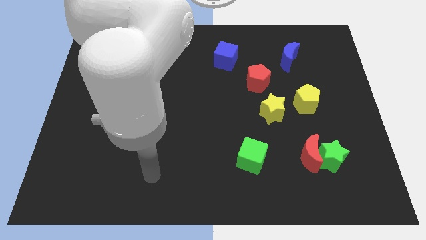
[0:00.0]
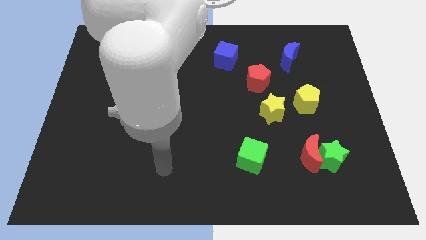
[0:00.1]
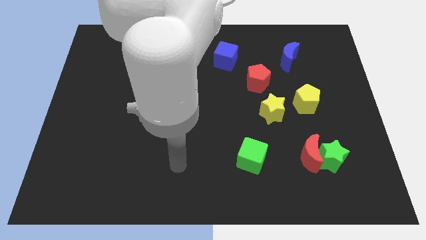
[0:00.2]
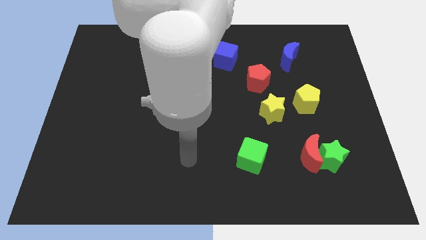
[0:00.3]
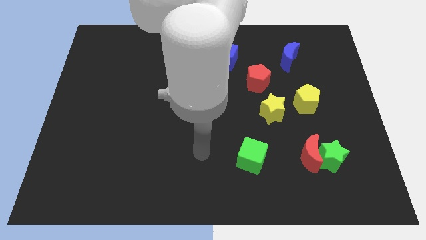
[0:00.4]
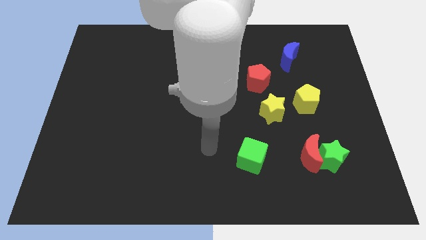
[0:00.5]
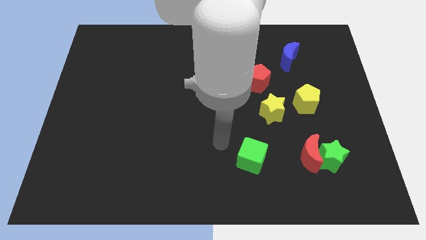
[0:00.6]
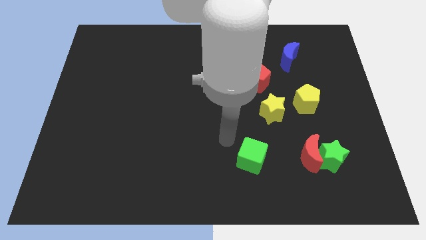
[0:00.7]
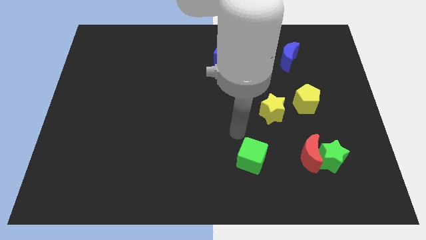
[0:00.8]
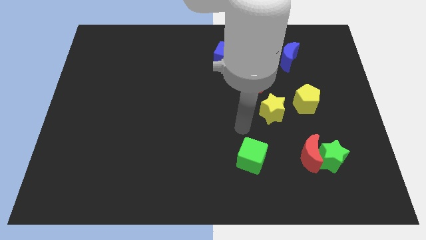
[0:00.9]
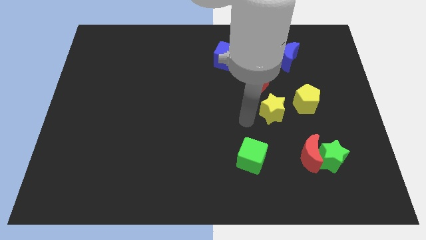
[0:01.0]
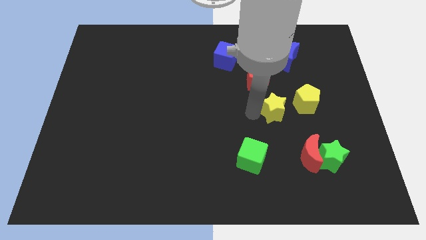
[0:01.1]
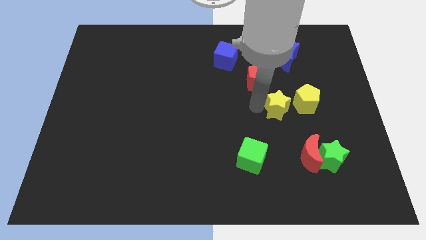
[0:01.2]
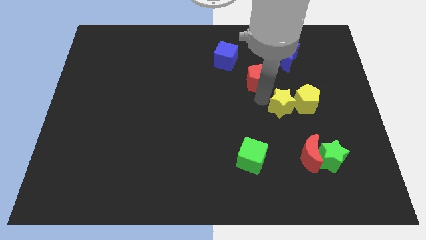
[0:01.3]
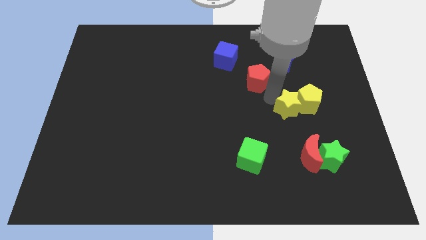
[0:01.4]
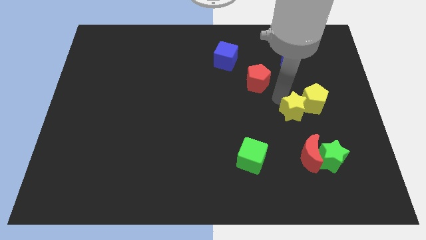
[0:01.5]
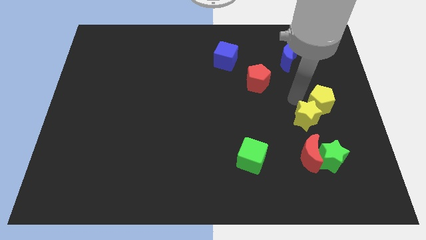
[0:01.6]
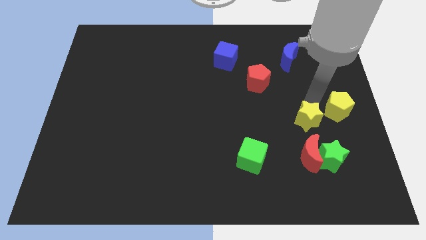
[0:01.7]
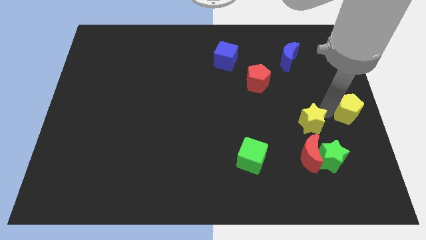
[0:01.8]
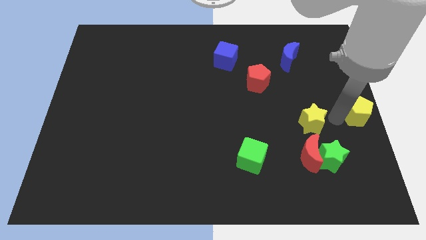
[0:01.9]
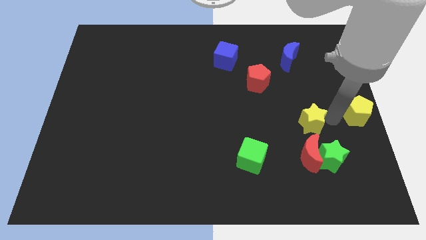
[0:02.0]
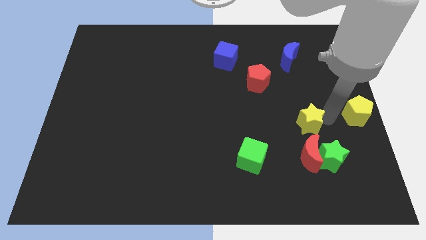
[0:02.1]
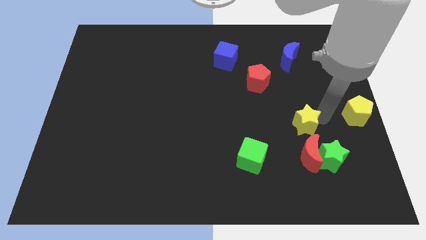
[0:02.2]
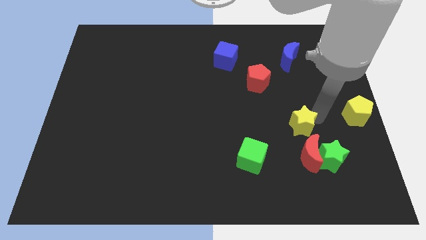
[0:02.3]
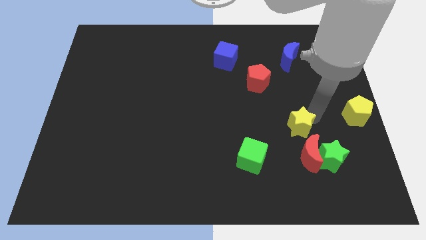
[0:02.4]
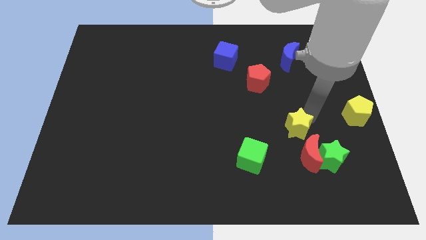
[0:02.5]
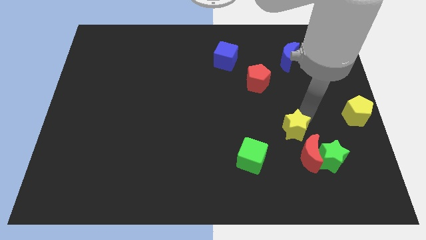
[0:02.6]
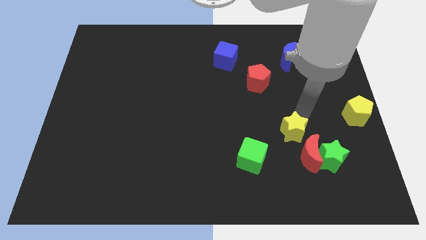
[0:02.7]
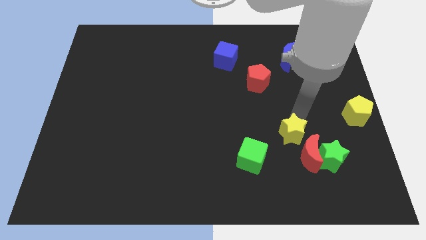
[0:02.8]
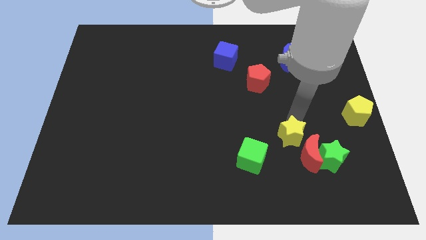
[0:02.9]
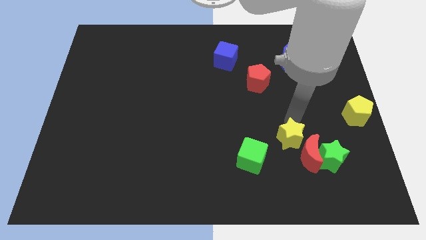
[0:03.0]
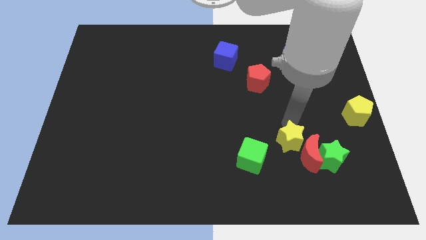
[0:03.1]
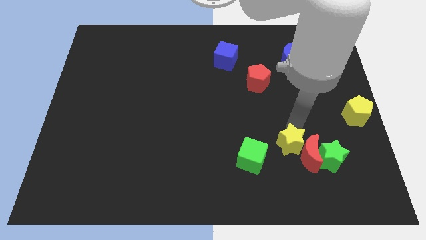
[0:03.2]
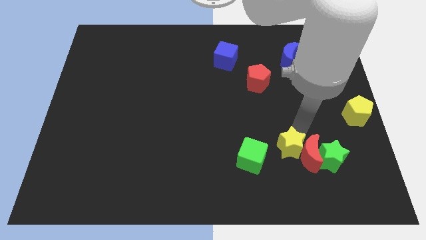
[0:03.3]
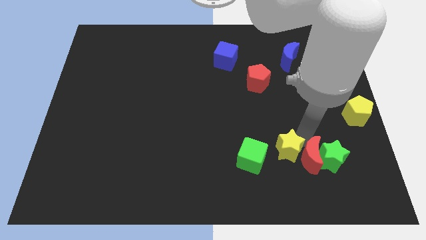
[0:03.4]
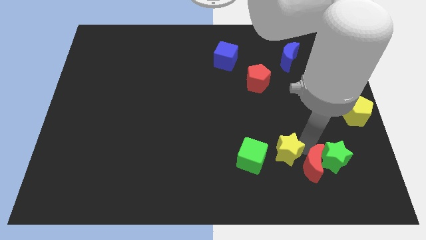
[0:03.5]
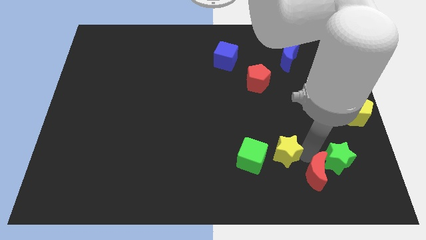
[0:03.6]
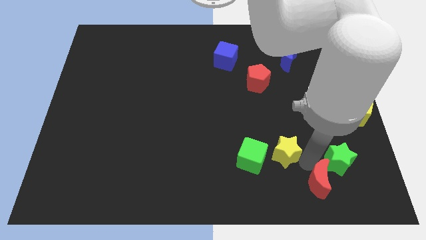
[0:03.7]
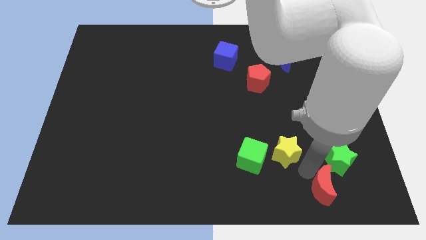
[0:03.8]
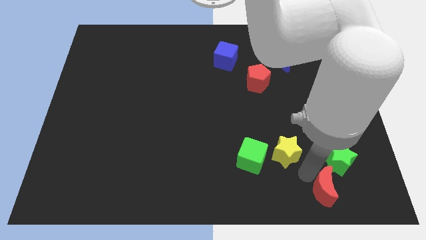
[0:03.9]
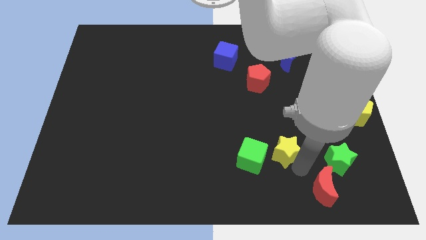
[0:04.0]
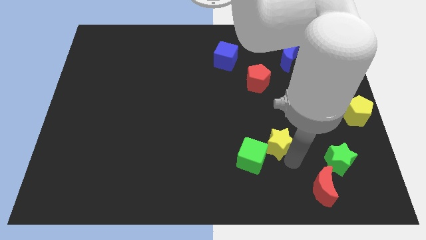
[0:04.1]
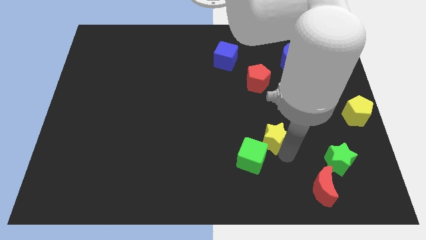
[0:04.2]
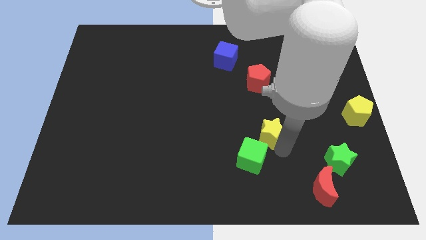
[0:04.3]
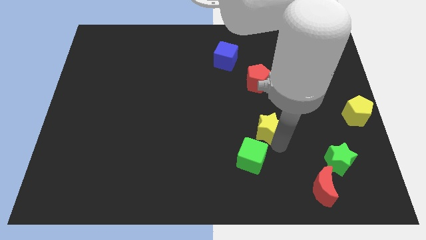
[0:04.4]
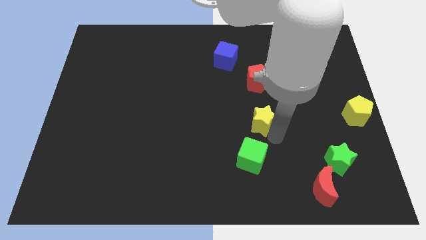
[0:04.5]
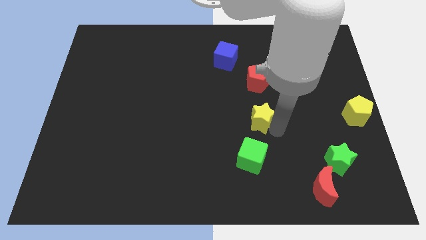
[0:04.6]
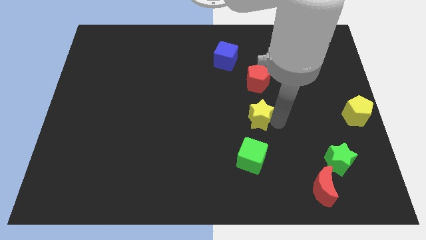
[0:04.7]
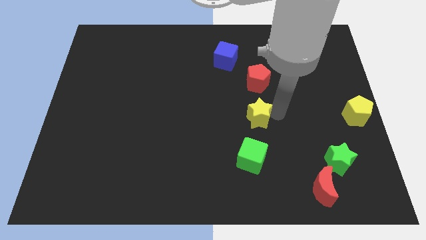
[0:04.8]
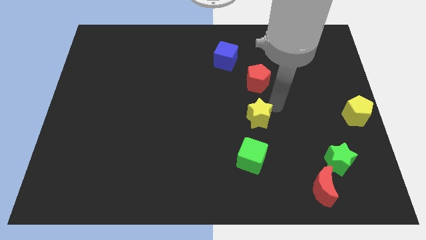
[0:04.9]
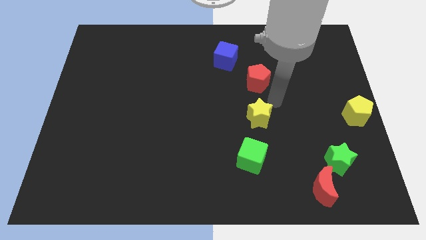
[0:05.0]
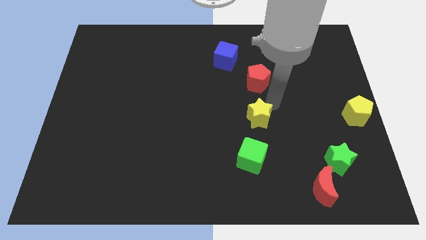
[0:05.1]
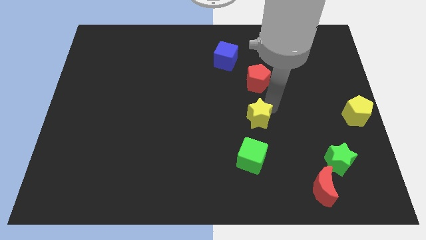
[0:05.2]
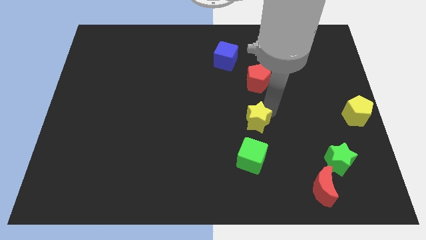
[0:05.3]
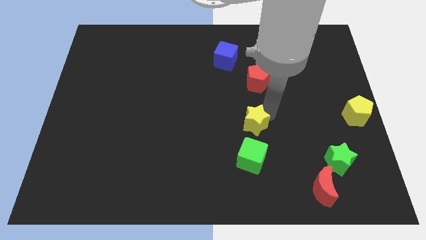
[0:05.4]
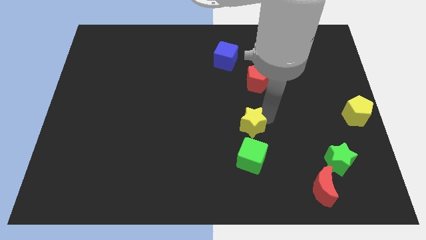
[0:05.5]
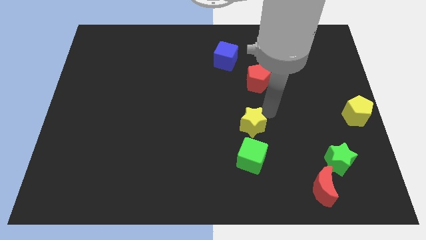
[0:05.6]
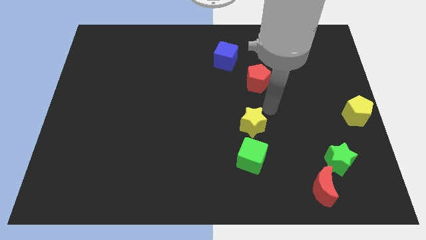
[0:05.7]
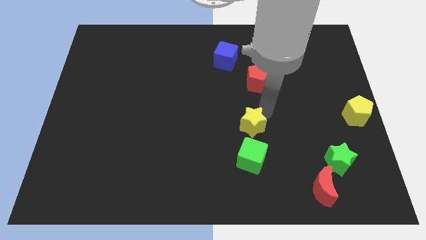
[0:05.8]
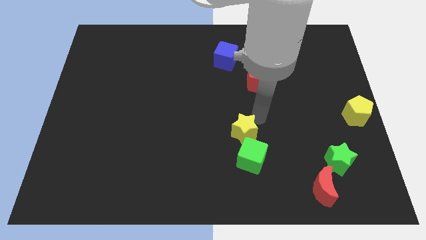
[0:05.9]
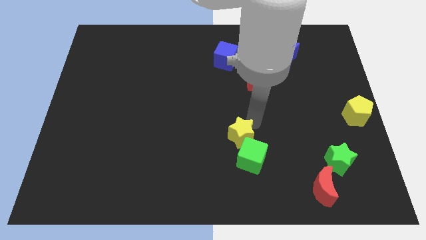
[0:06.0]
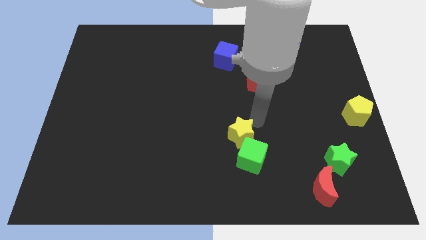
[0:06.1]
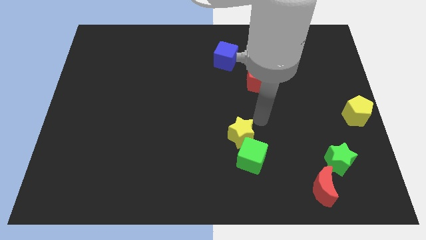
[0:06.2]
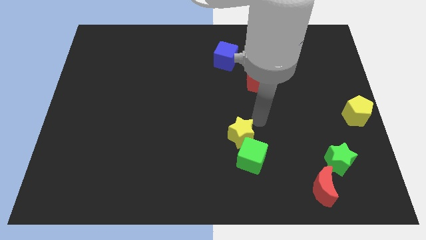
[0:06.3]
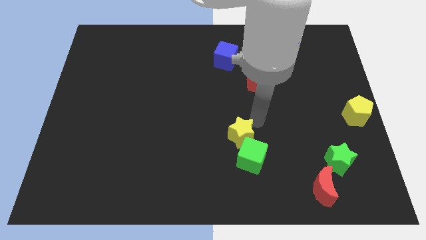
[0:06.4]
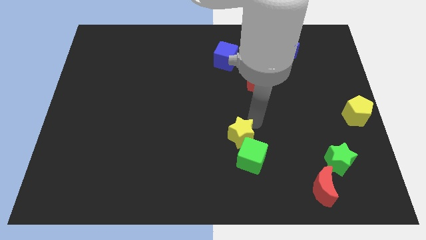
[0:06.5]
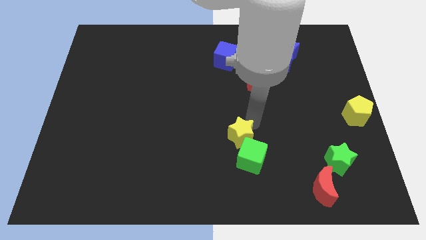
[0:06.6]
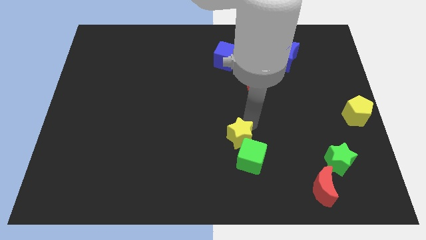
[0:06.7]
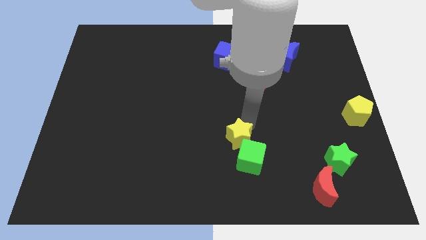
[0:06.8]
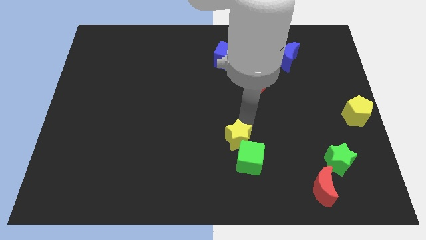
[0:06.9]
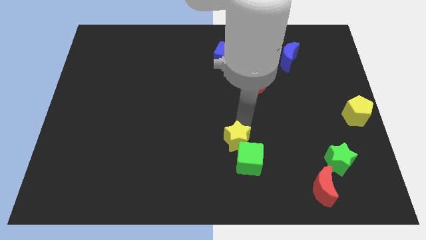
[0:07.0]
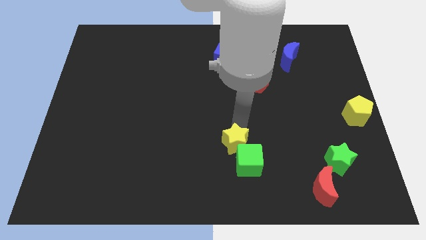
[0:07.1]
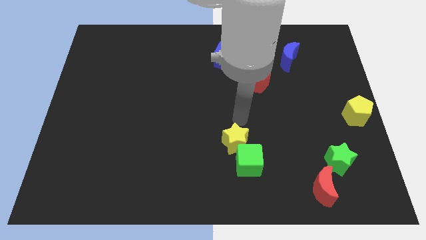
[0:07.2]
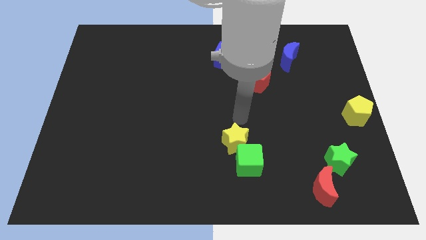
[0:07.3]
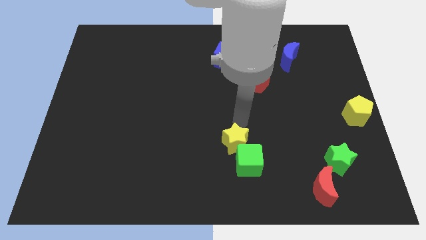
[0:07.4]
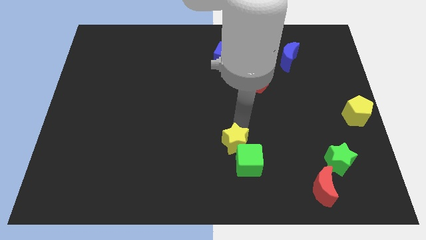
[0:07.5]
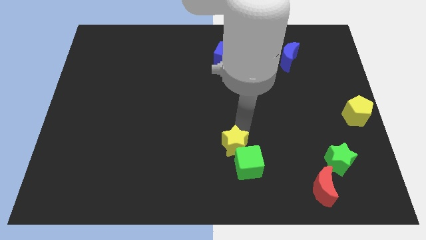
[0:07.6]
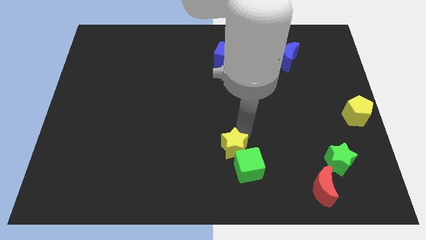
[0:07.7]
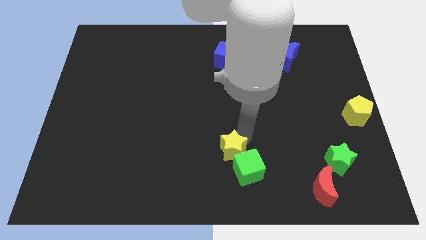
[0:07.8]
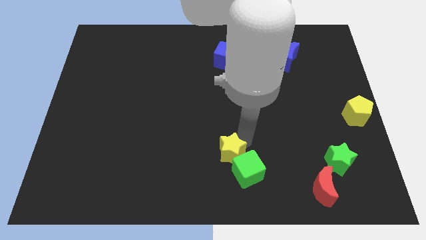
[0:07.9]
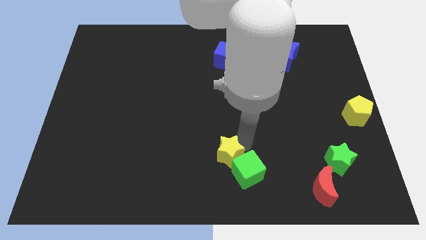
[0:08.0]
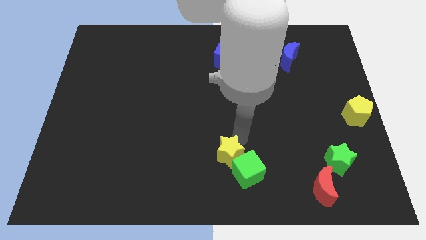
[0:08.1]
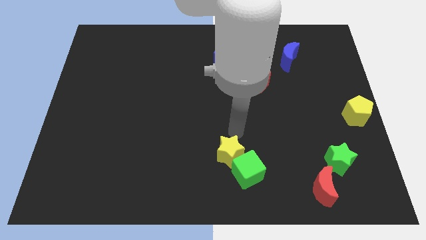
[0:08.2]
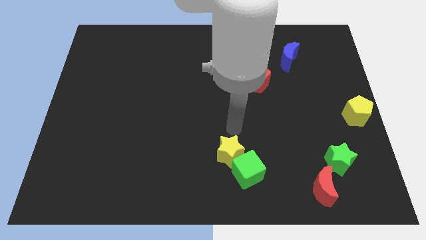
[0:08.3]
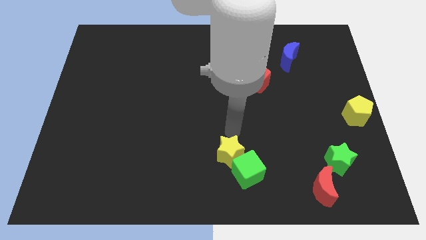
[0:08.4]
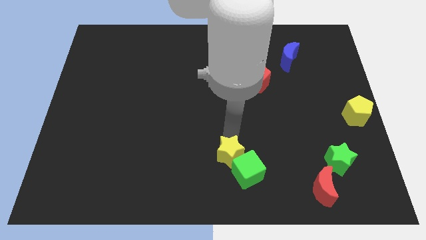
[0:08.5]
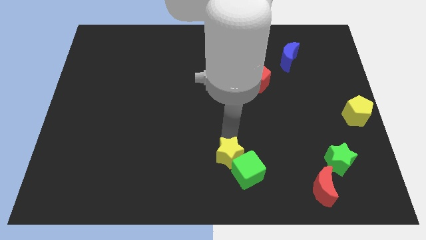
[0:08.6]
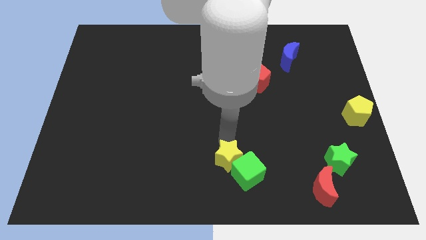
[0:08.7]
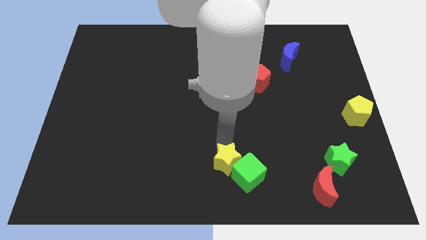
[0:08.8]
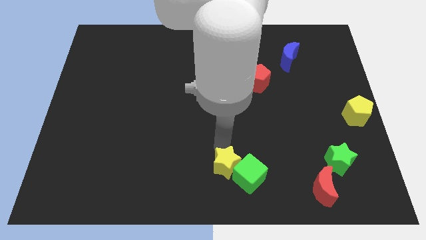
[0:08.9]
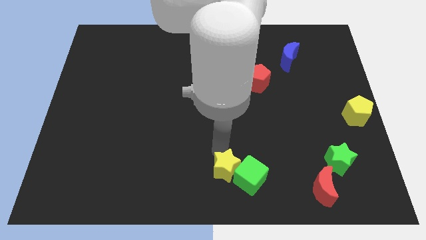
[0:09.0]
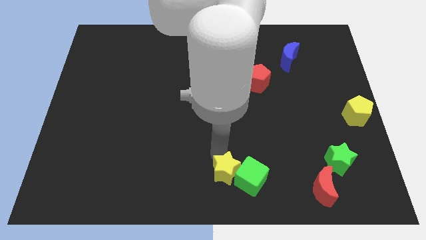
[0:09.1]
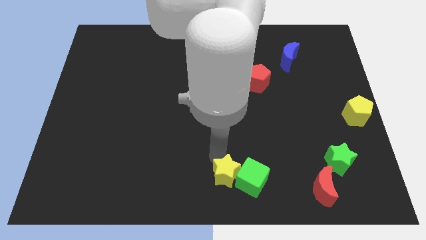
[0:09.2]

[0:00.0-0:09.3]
slide the yellow star to the bottom left of the green cube
